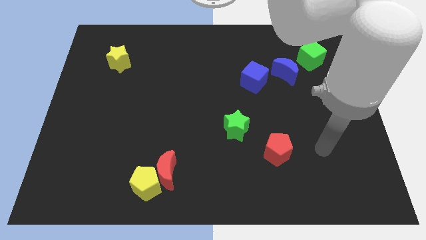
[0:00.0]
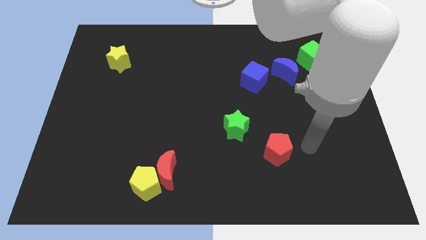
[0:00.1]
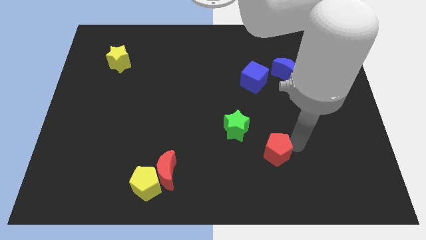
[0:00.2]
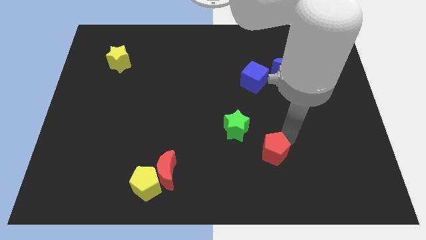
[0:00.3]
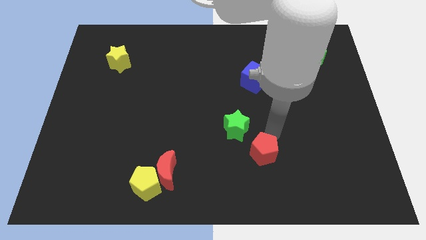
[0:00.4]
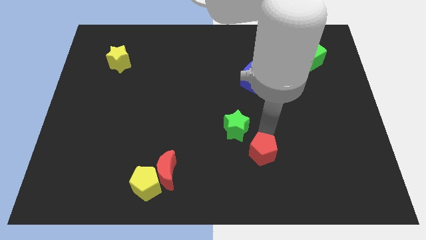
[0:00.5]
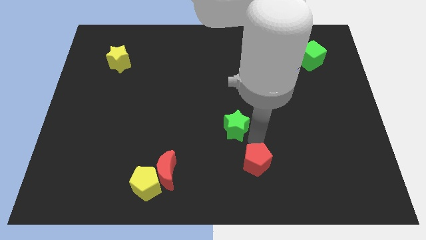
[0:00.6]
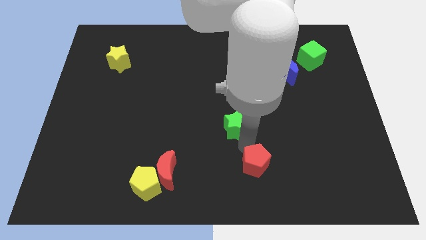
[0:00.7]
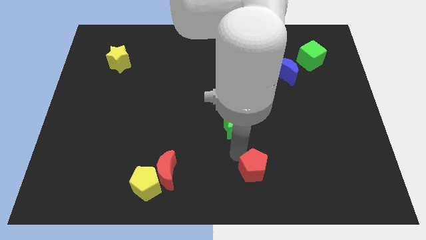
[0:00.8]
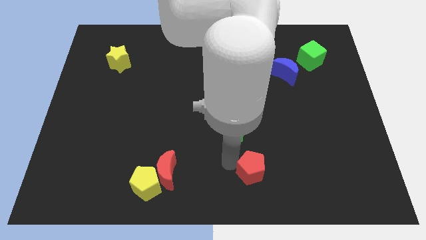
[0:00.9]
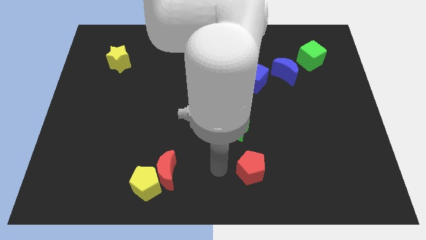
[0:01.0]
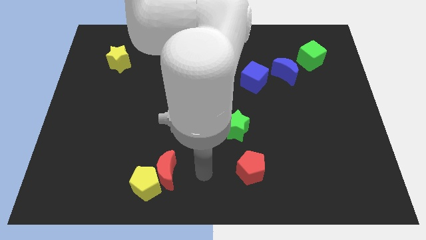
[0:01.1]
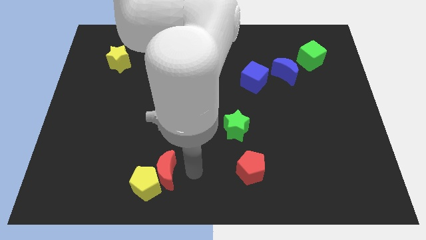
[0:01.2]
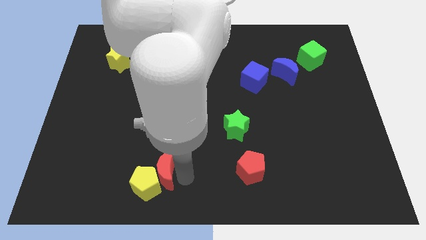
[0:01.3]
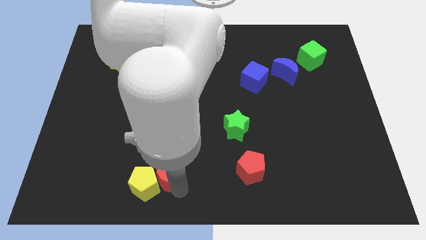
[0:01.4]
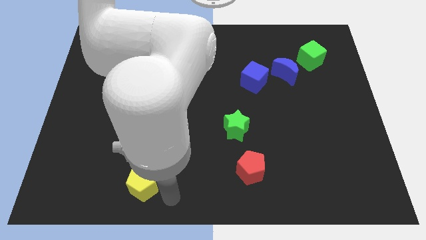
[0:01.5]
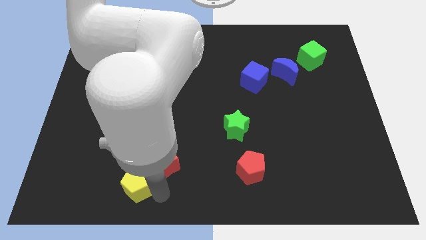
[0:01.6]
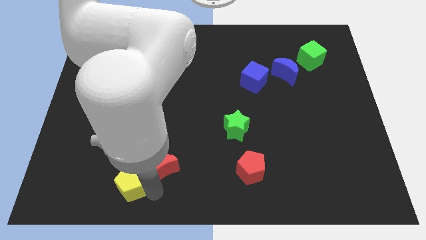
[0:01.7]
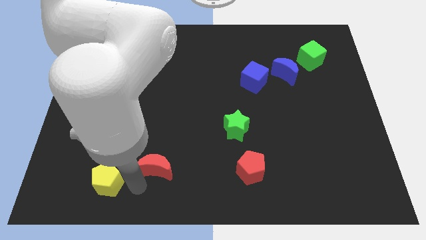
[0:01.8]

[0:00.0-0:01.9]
move the red moon away from the yellow pentagon

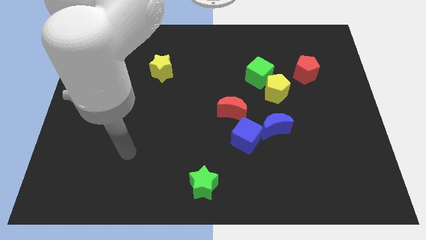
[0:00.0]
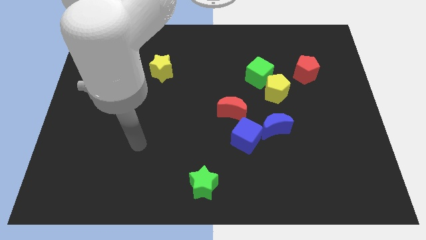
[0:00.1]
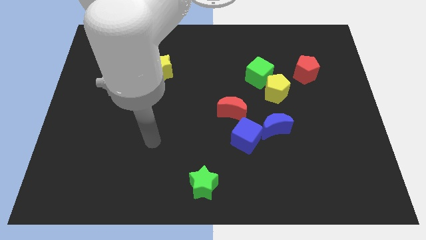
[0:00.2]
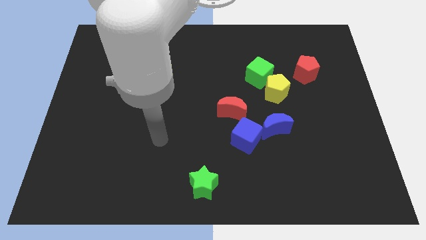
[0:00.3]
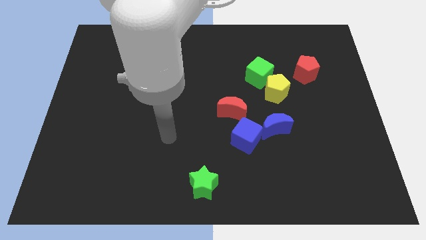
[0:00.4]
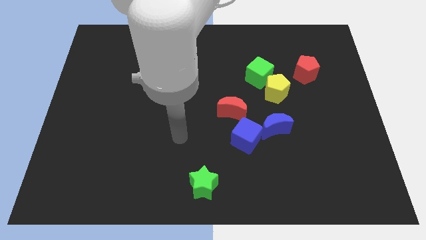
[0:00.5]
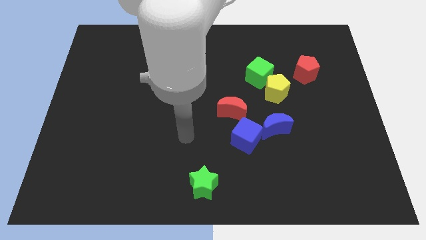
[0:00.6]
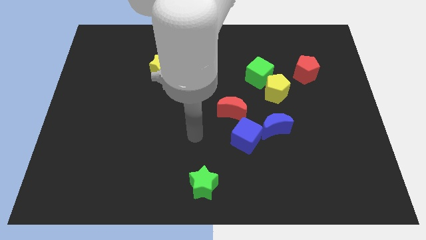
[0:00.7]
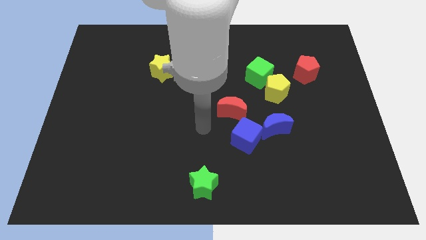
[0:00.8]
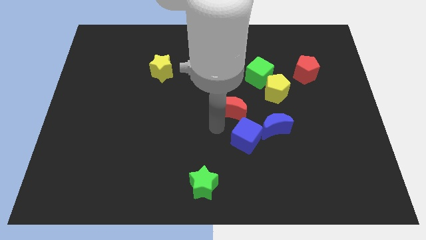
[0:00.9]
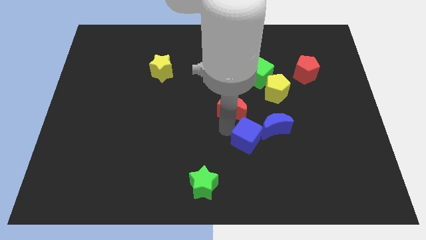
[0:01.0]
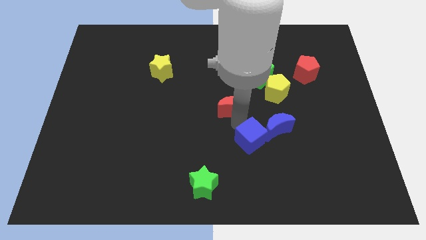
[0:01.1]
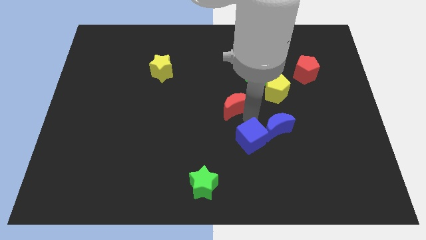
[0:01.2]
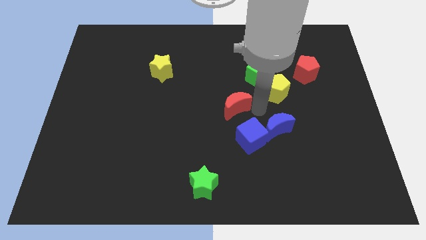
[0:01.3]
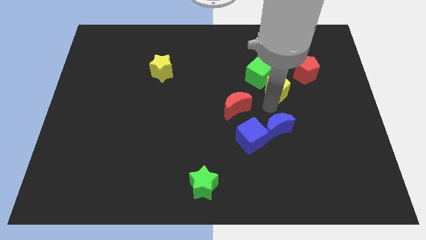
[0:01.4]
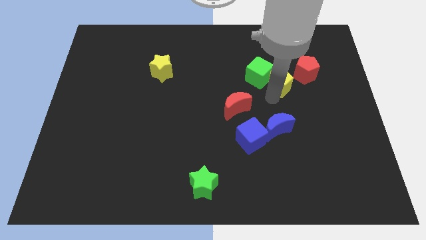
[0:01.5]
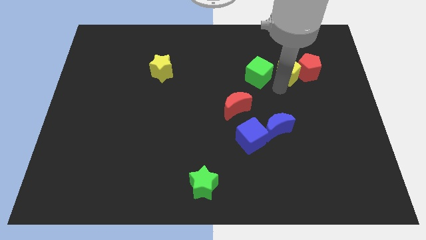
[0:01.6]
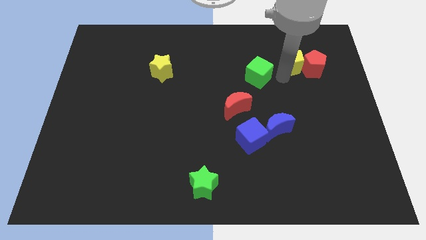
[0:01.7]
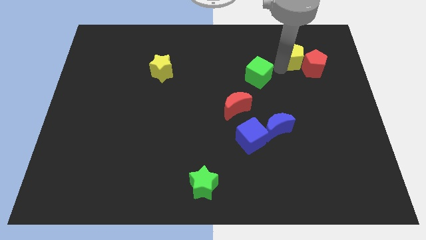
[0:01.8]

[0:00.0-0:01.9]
pull the green cube apart from the yellow pentagon

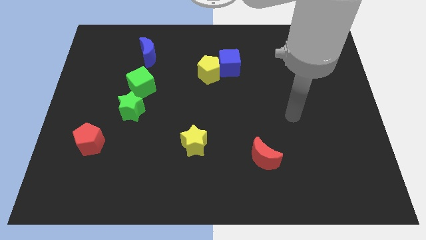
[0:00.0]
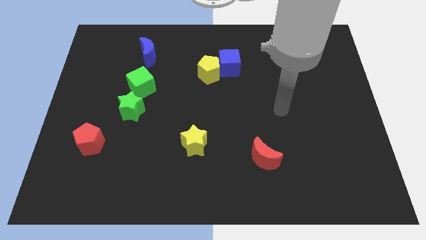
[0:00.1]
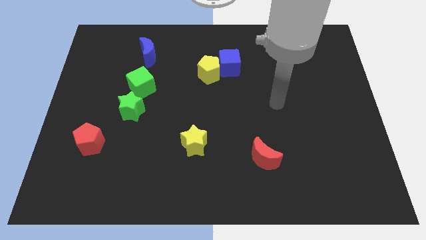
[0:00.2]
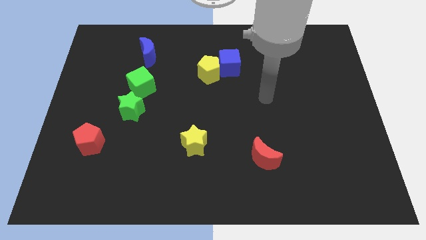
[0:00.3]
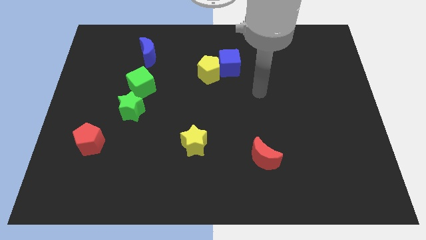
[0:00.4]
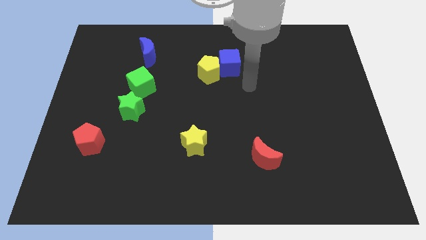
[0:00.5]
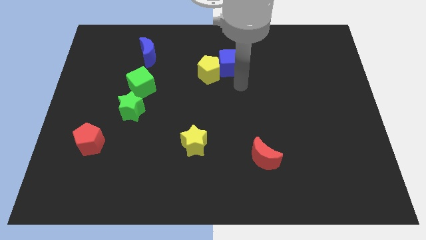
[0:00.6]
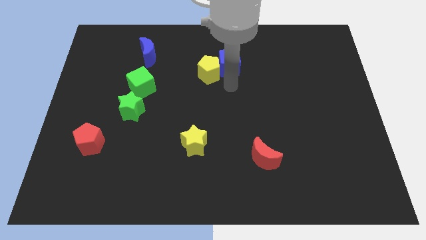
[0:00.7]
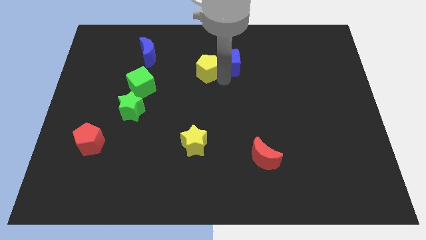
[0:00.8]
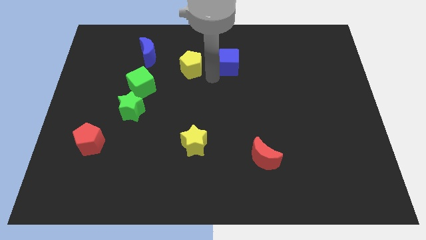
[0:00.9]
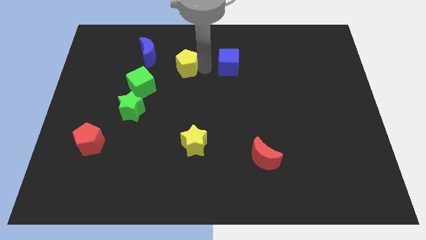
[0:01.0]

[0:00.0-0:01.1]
separate the blue cube from the yellow pentagon

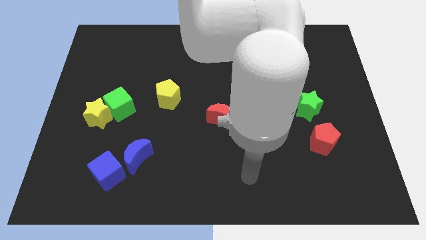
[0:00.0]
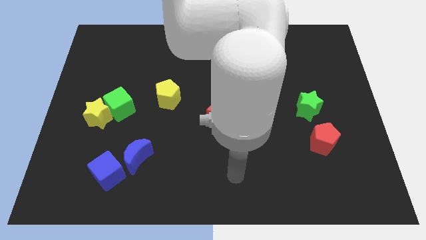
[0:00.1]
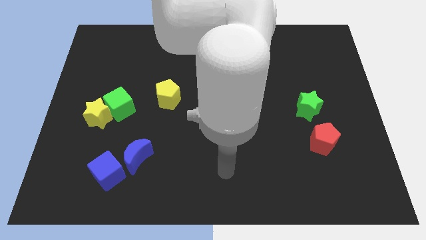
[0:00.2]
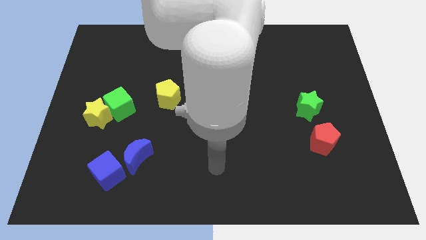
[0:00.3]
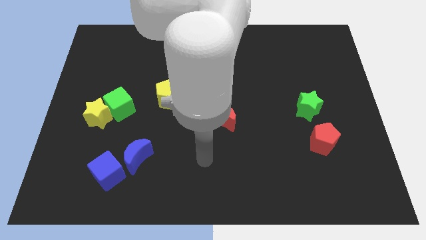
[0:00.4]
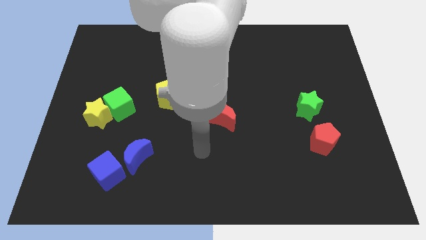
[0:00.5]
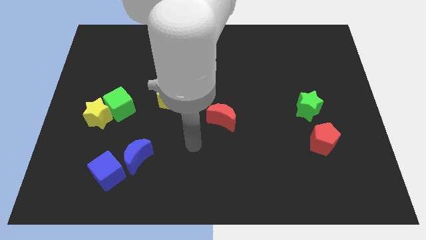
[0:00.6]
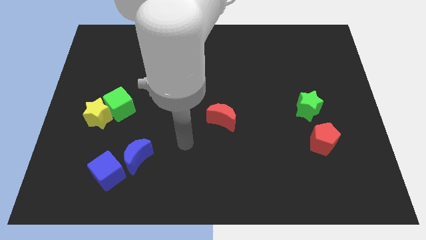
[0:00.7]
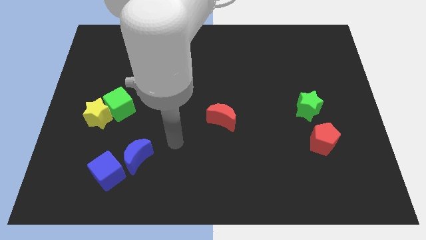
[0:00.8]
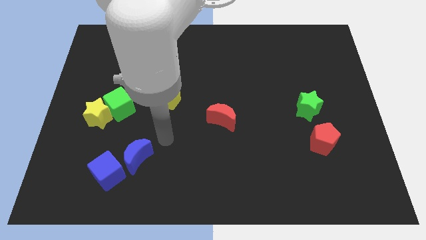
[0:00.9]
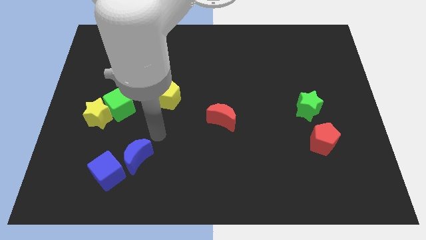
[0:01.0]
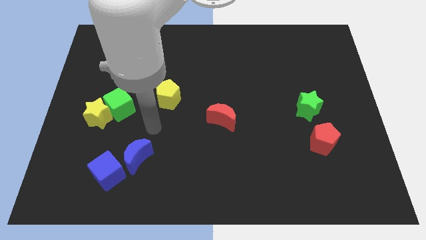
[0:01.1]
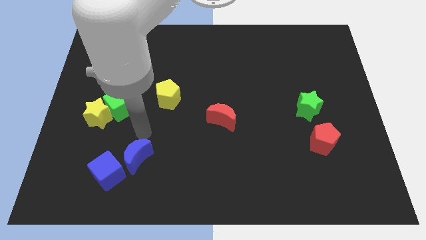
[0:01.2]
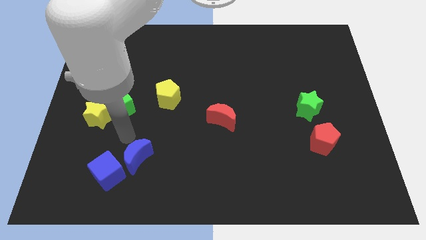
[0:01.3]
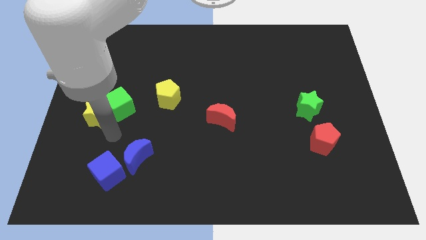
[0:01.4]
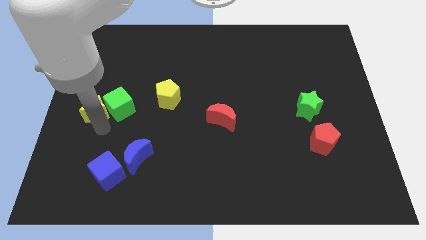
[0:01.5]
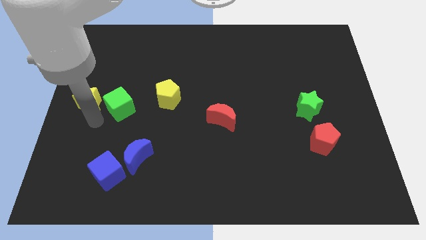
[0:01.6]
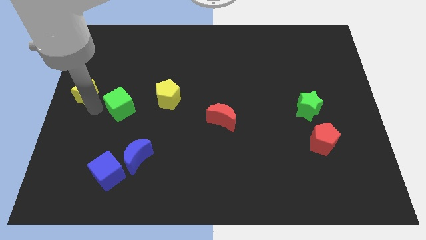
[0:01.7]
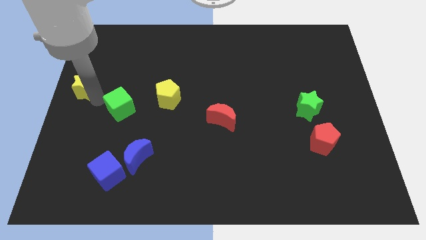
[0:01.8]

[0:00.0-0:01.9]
move the green cube away from the yellow star

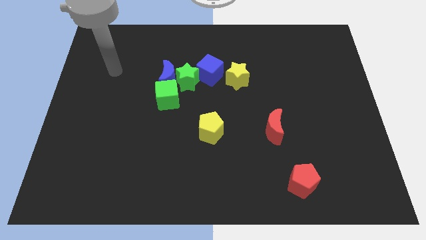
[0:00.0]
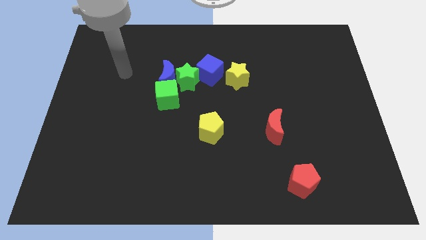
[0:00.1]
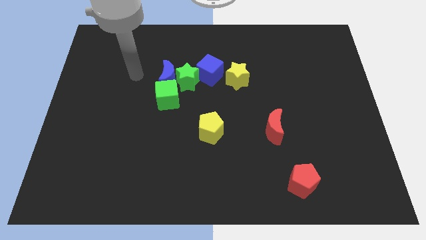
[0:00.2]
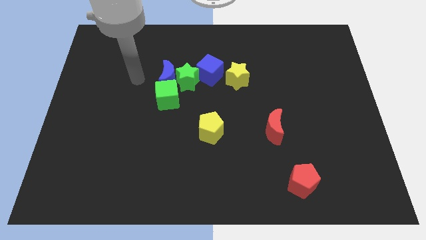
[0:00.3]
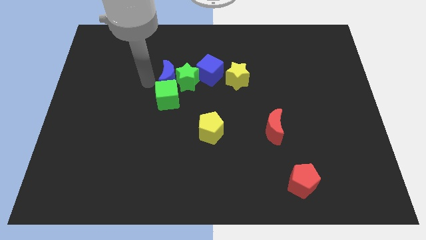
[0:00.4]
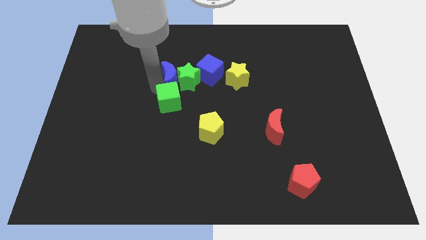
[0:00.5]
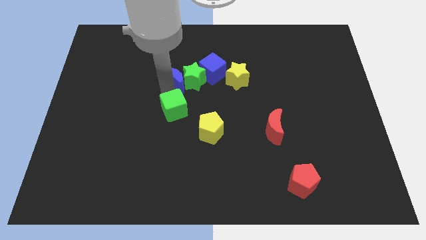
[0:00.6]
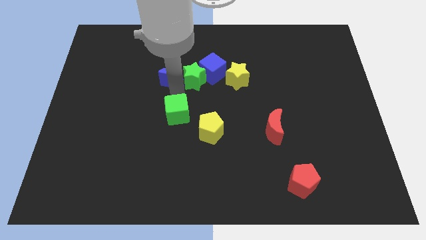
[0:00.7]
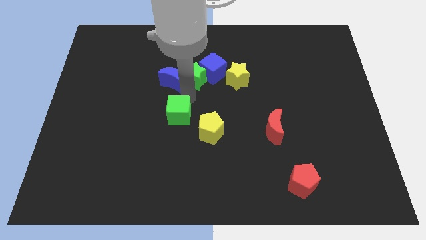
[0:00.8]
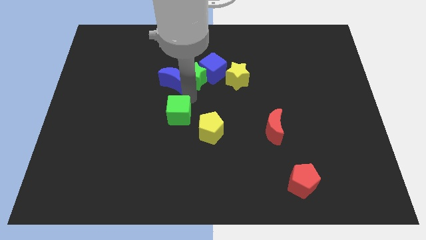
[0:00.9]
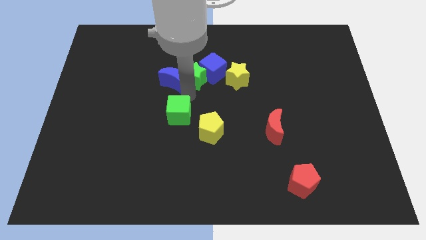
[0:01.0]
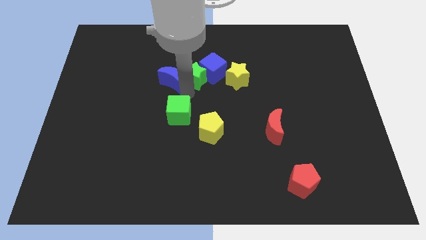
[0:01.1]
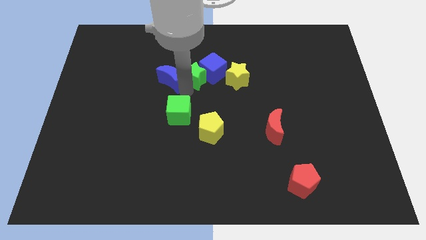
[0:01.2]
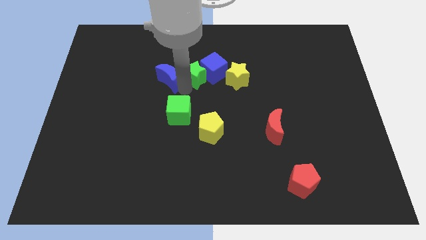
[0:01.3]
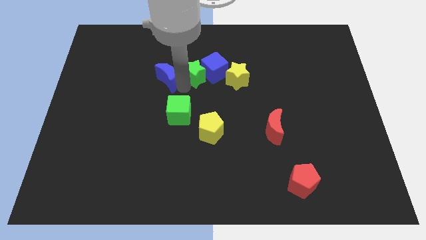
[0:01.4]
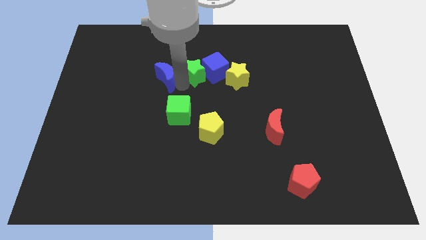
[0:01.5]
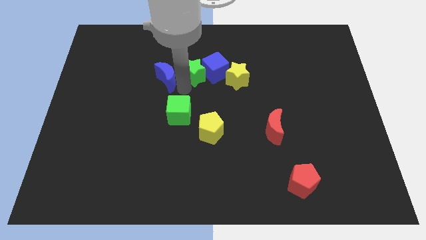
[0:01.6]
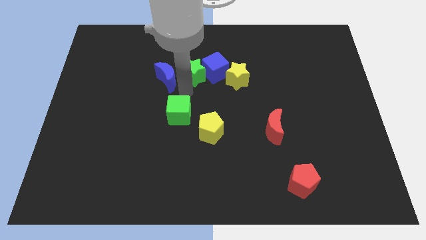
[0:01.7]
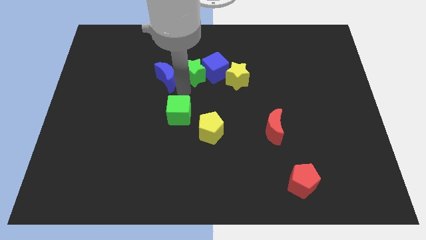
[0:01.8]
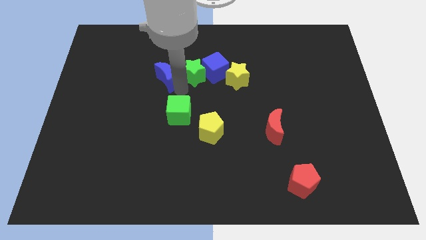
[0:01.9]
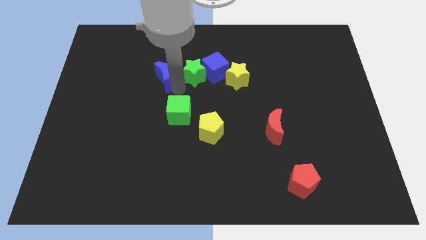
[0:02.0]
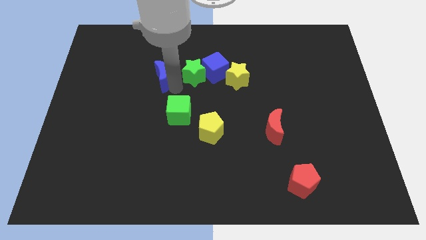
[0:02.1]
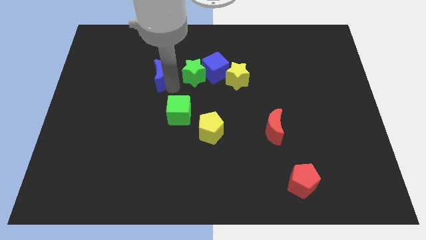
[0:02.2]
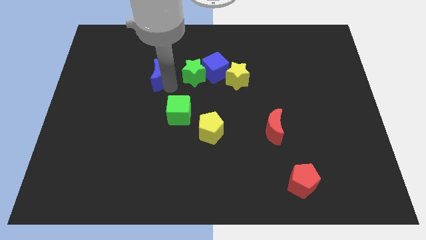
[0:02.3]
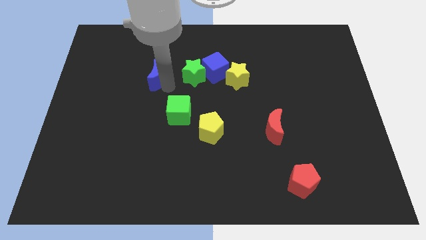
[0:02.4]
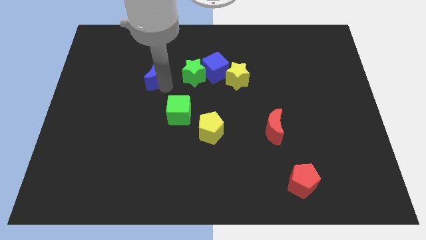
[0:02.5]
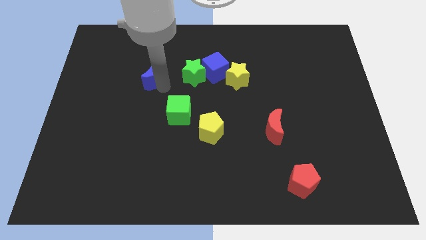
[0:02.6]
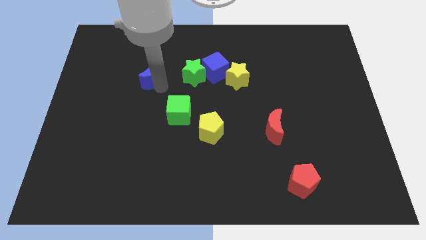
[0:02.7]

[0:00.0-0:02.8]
move the blue moon away from the green star and green cube
